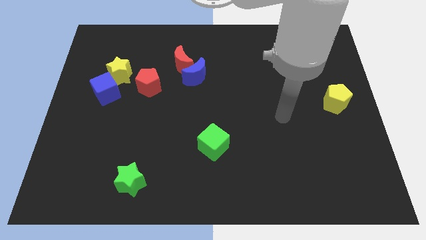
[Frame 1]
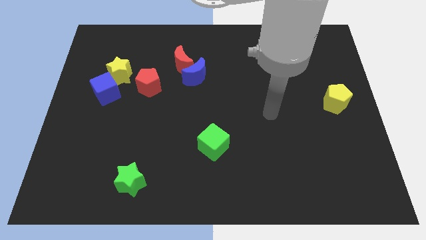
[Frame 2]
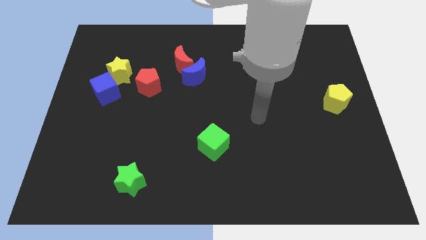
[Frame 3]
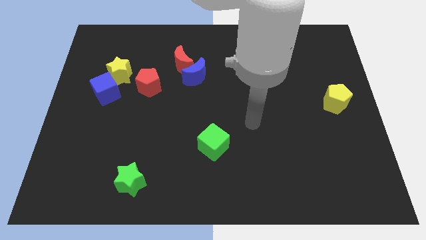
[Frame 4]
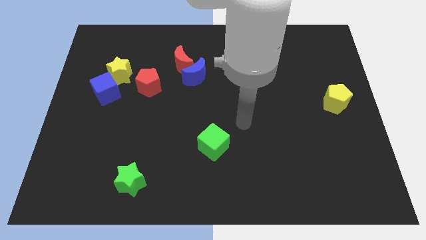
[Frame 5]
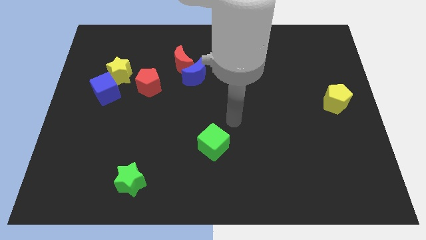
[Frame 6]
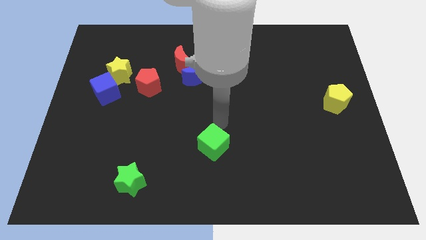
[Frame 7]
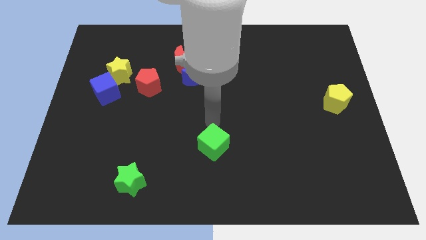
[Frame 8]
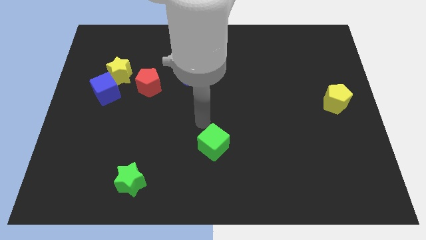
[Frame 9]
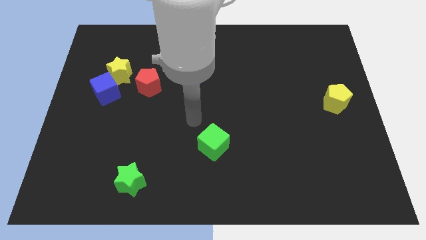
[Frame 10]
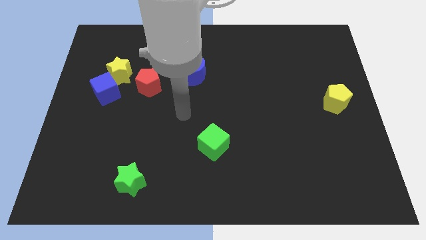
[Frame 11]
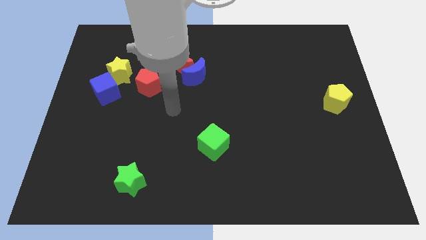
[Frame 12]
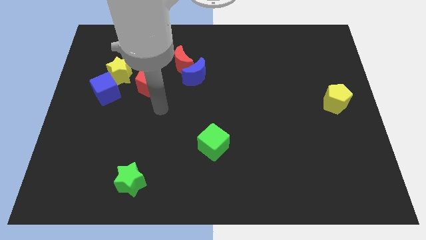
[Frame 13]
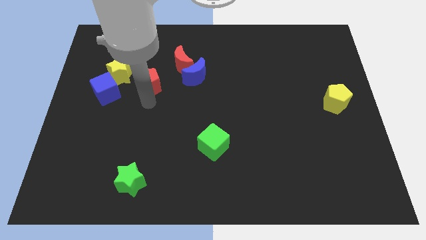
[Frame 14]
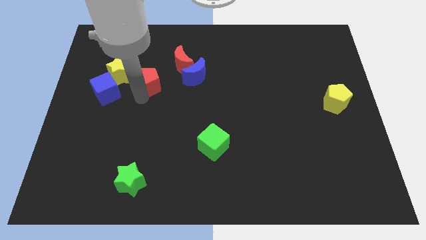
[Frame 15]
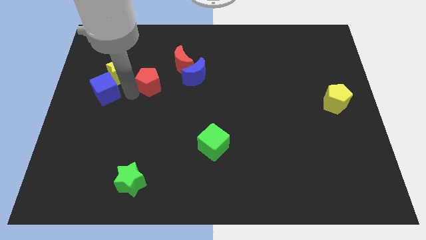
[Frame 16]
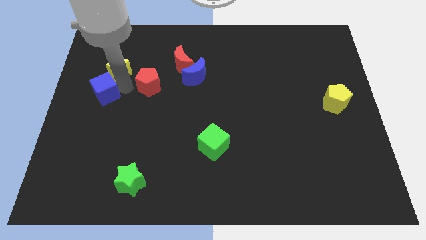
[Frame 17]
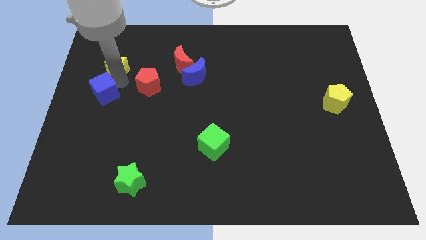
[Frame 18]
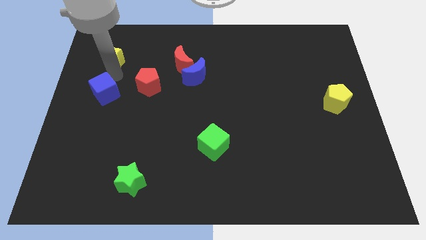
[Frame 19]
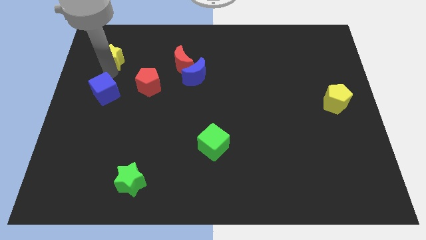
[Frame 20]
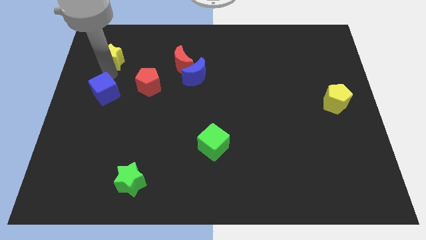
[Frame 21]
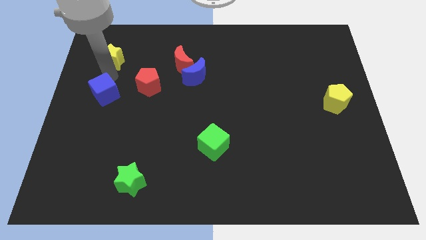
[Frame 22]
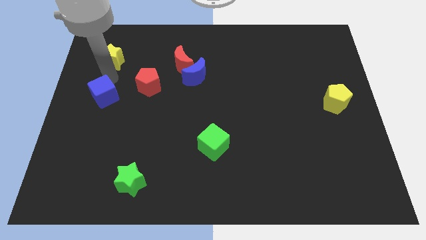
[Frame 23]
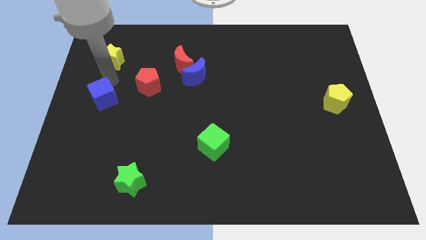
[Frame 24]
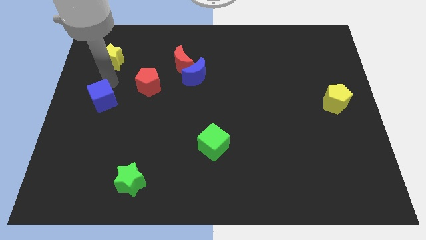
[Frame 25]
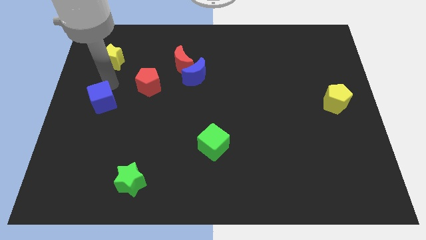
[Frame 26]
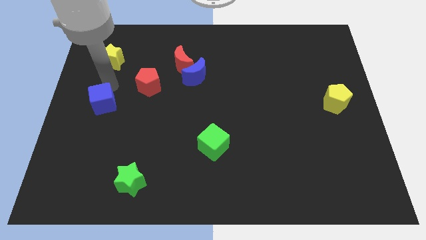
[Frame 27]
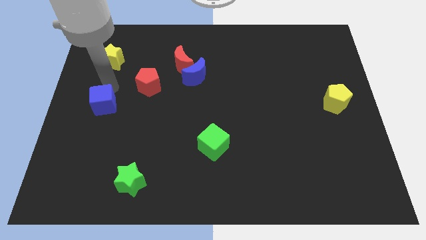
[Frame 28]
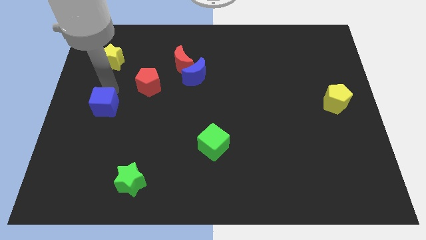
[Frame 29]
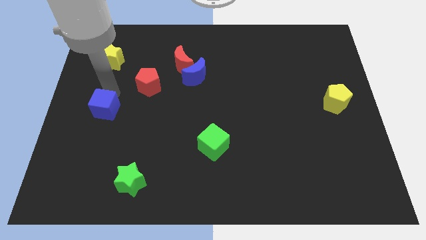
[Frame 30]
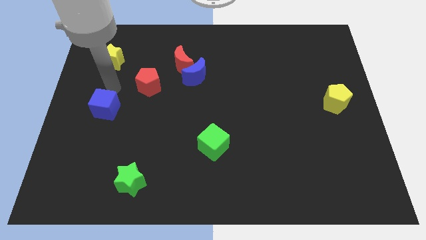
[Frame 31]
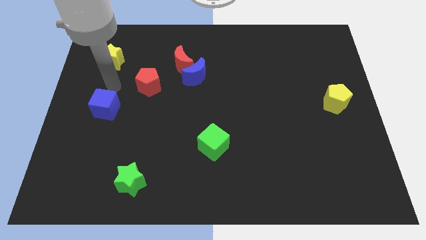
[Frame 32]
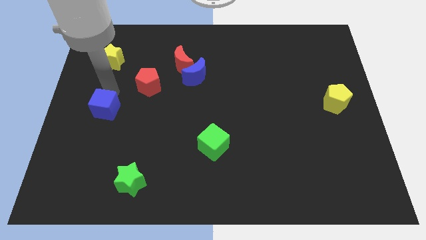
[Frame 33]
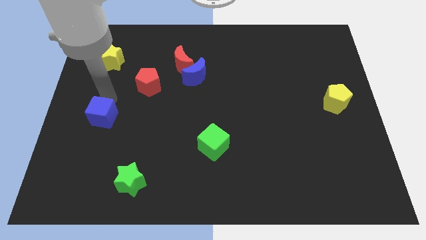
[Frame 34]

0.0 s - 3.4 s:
slightly push the blue cube down

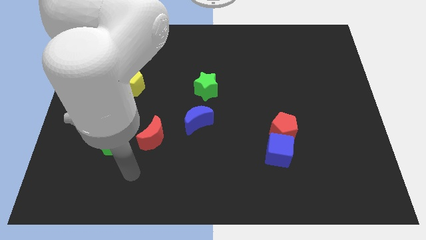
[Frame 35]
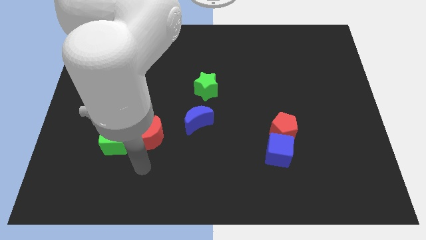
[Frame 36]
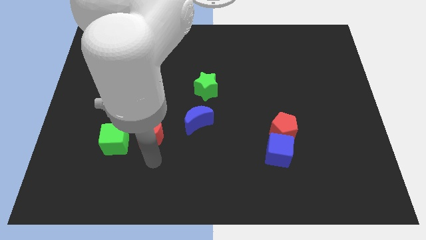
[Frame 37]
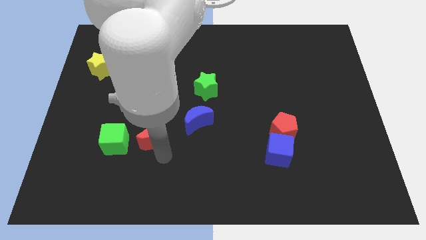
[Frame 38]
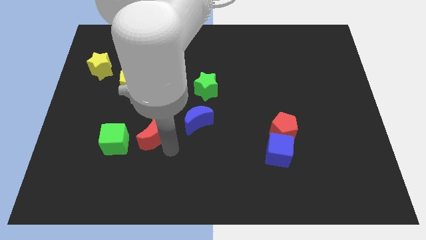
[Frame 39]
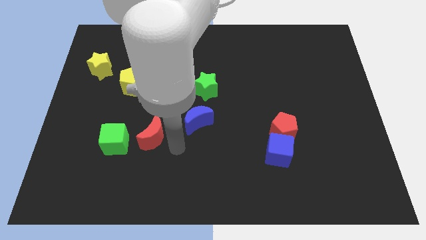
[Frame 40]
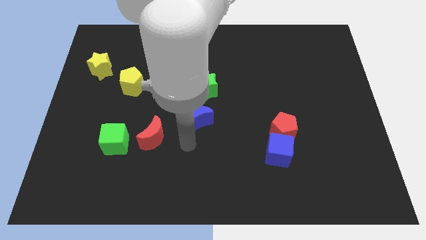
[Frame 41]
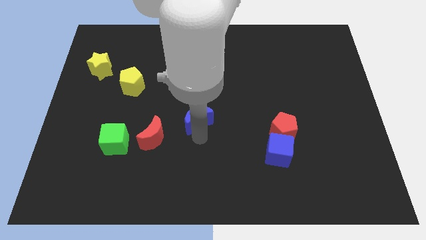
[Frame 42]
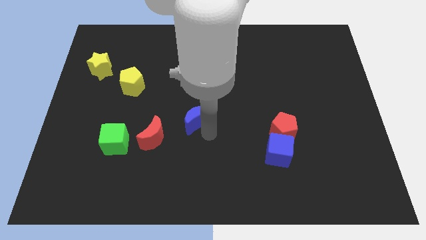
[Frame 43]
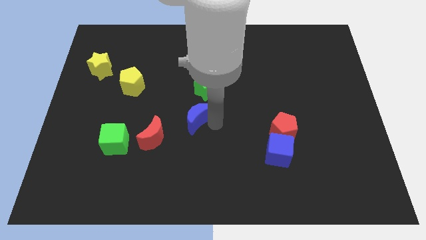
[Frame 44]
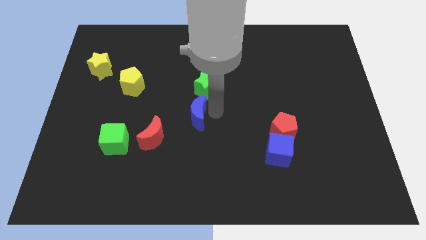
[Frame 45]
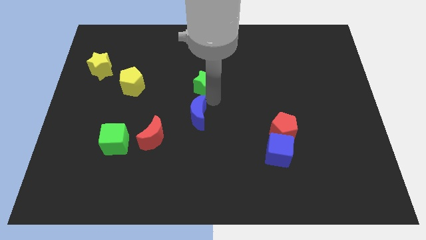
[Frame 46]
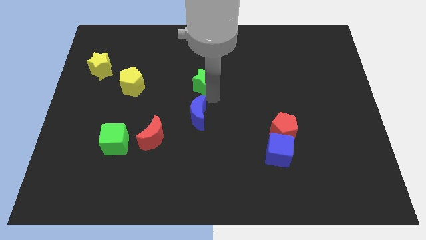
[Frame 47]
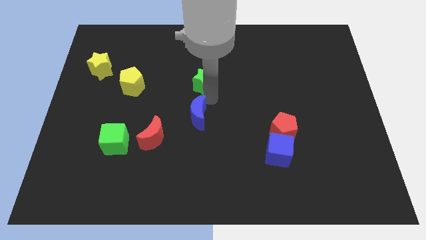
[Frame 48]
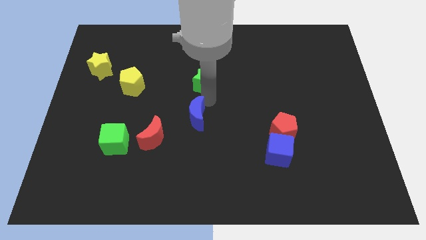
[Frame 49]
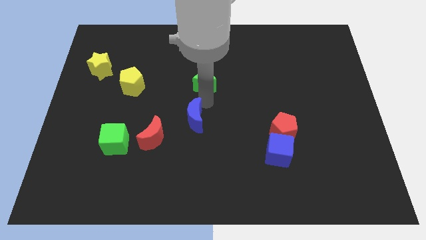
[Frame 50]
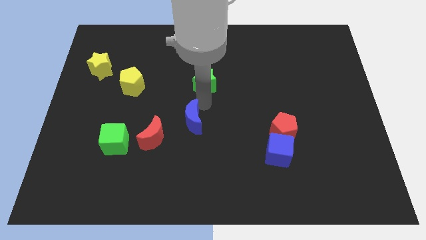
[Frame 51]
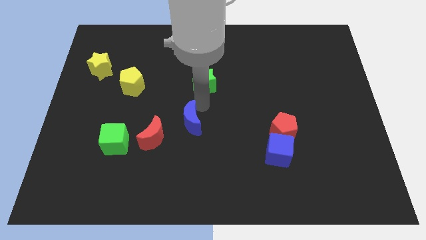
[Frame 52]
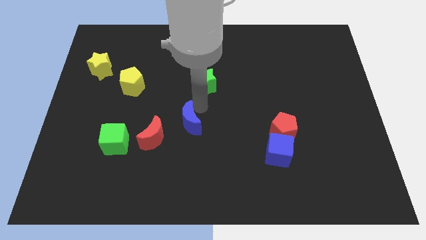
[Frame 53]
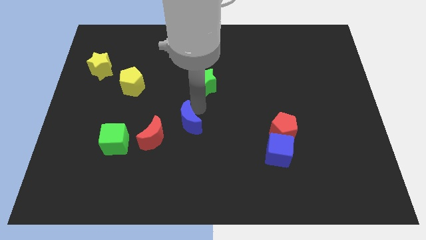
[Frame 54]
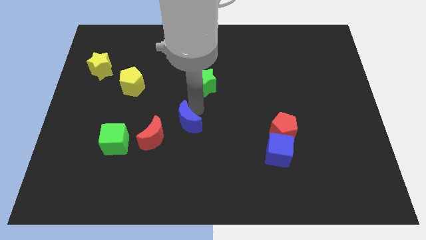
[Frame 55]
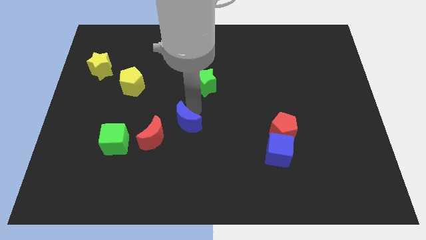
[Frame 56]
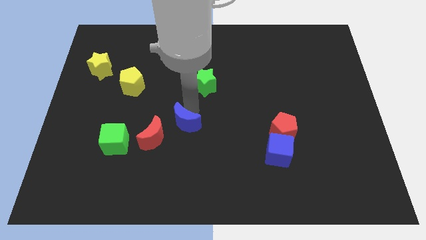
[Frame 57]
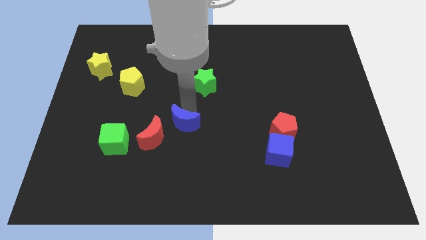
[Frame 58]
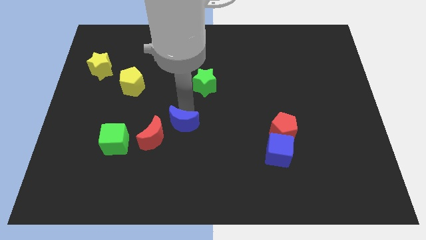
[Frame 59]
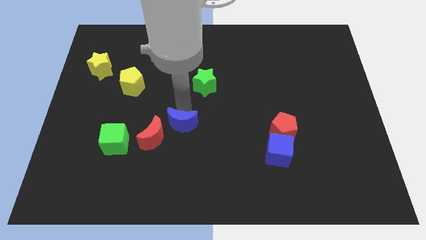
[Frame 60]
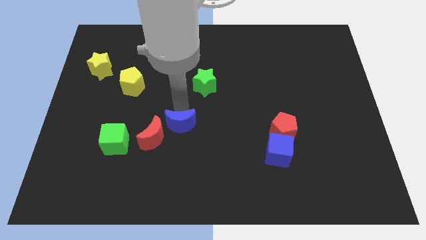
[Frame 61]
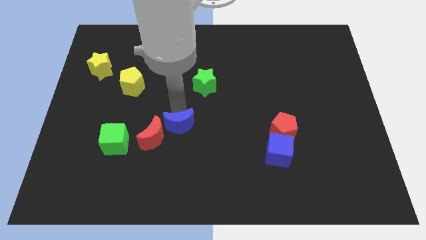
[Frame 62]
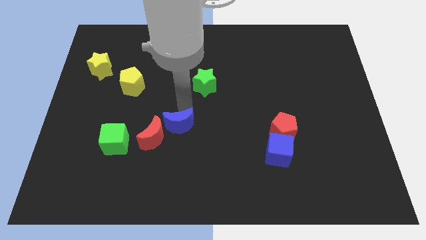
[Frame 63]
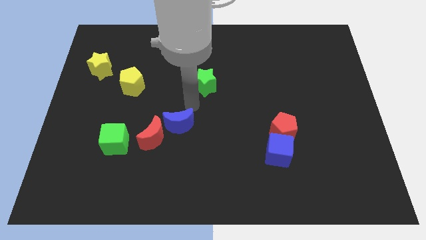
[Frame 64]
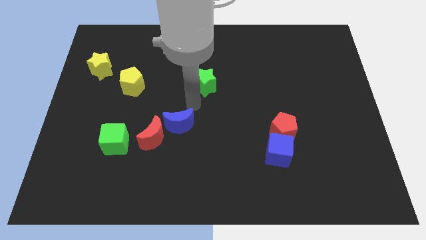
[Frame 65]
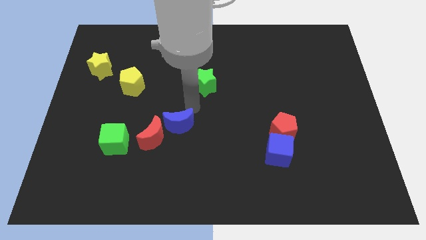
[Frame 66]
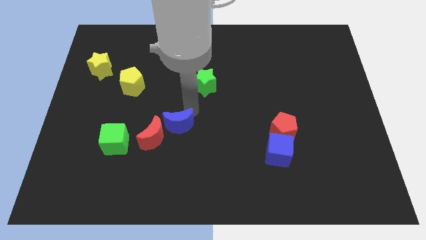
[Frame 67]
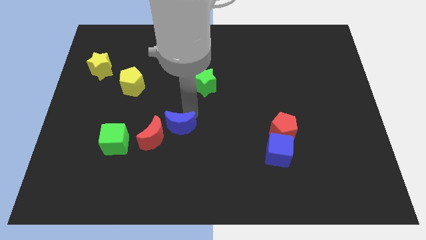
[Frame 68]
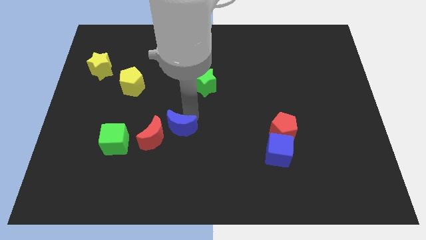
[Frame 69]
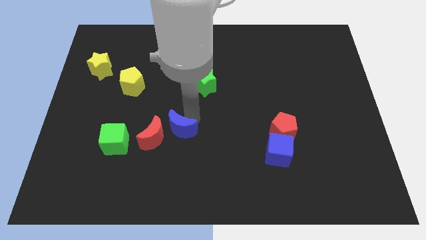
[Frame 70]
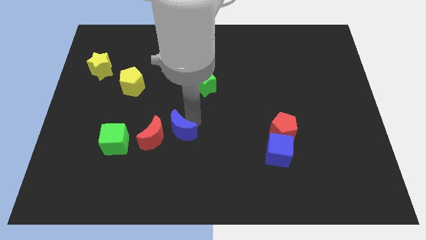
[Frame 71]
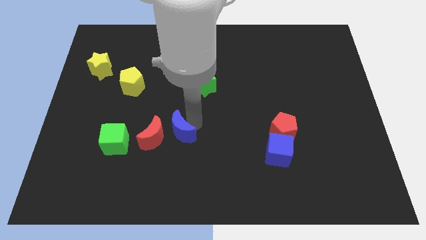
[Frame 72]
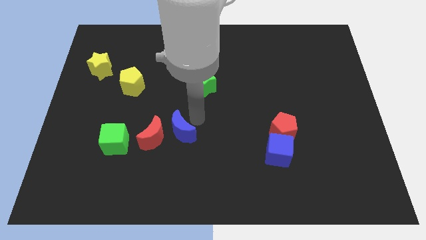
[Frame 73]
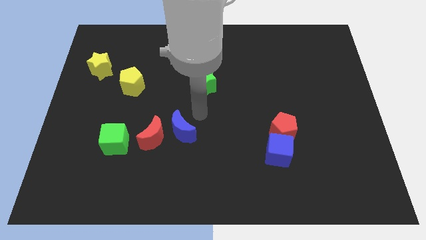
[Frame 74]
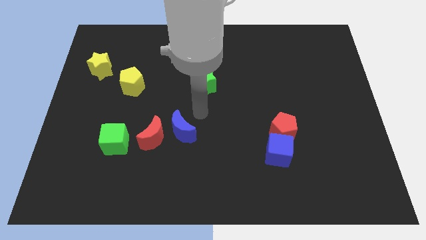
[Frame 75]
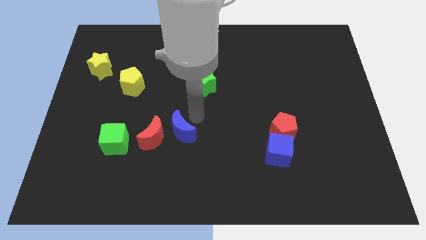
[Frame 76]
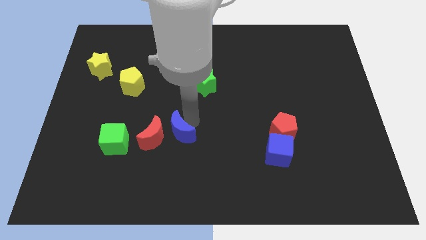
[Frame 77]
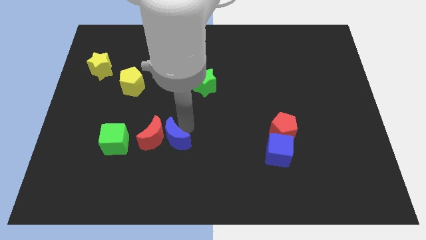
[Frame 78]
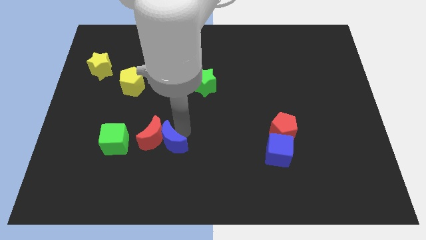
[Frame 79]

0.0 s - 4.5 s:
move the blue moon diagonally down and to the left a little

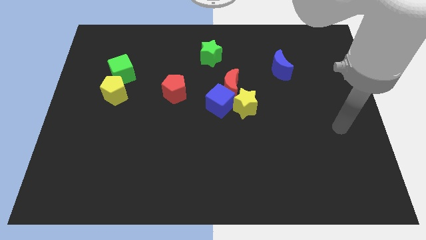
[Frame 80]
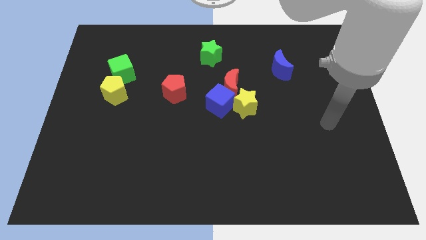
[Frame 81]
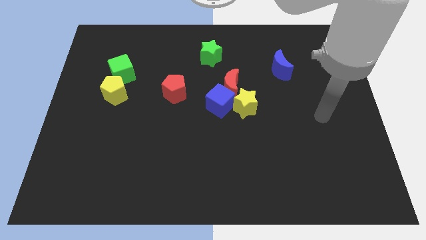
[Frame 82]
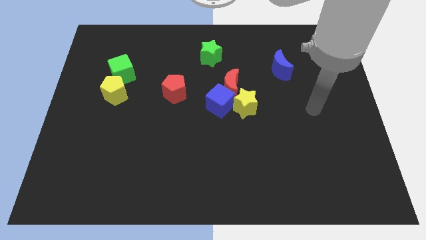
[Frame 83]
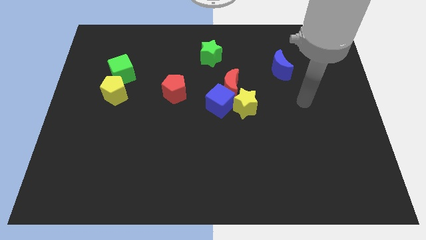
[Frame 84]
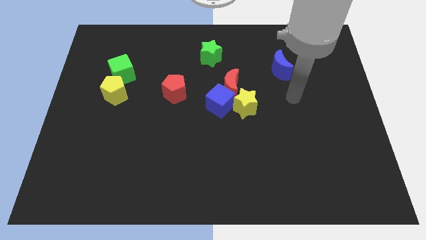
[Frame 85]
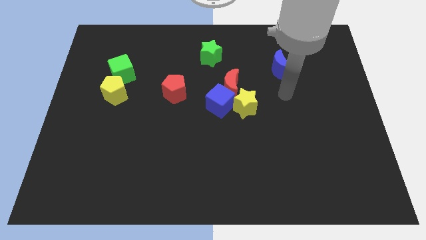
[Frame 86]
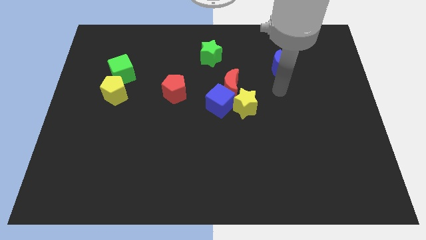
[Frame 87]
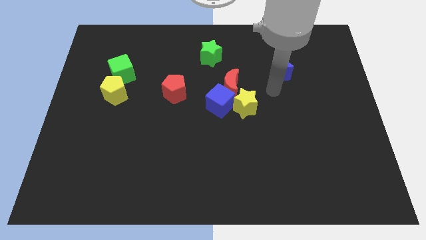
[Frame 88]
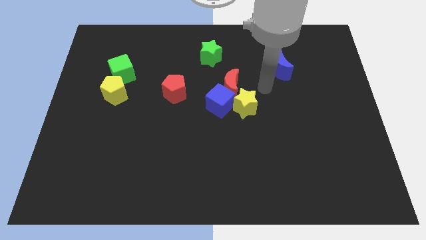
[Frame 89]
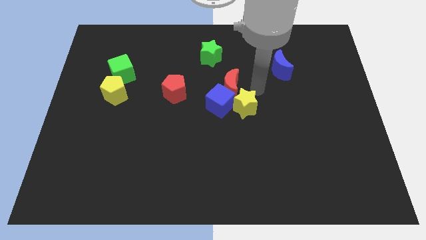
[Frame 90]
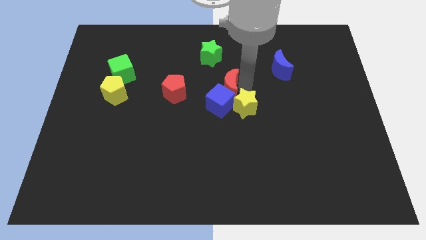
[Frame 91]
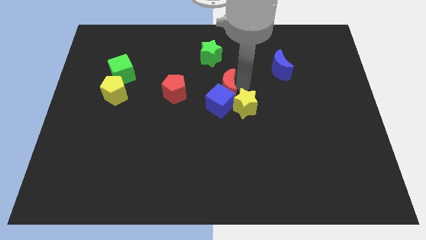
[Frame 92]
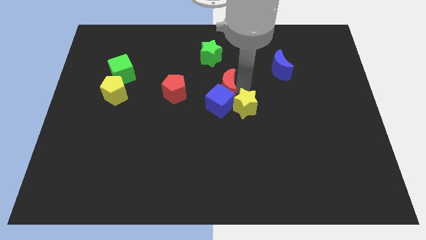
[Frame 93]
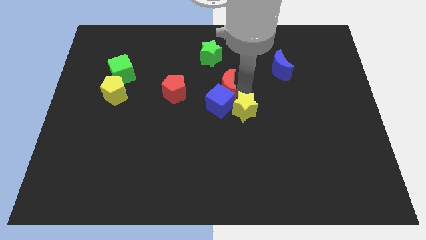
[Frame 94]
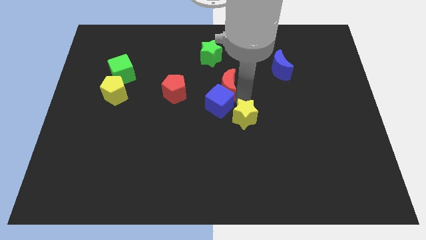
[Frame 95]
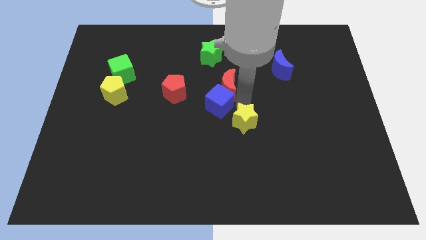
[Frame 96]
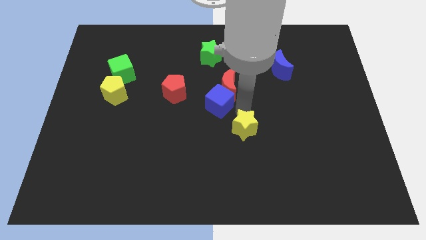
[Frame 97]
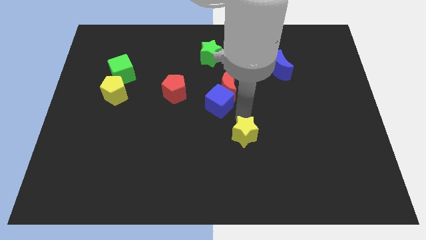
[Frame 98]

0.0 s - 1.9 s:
move the yellow star down a little bit
